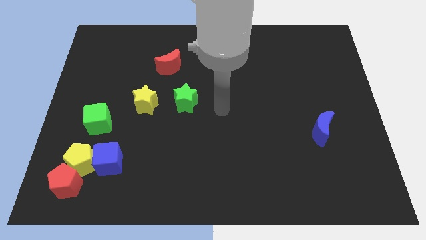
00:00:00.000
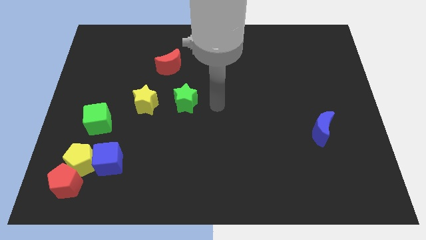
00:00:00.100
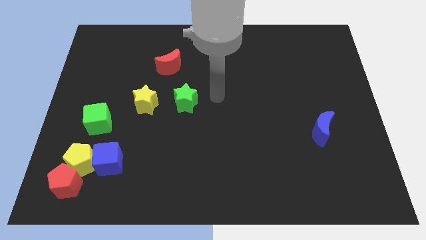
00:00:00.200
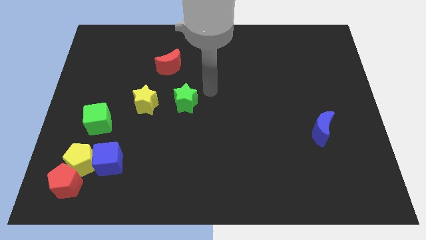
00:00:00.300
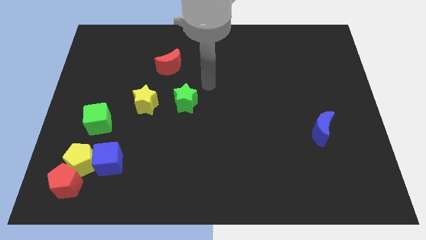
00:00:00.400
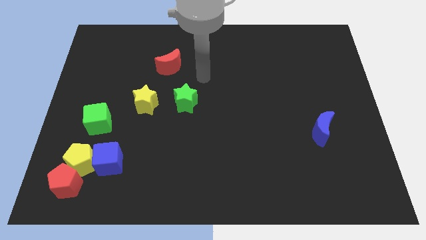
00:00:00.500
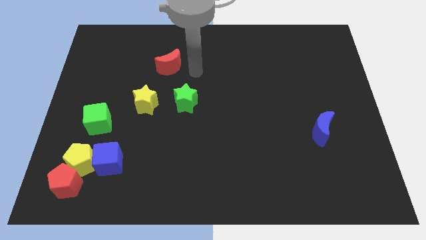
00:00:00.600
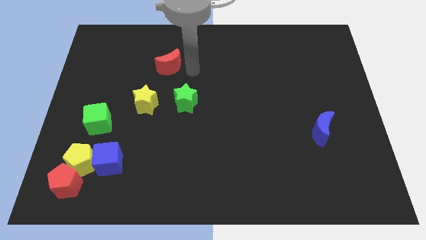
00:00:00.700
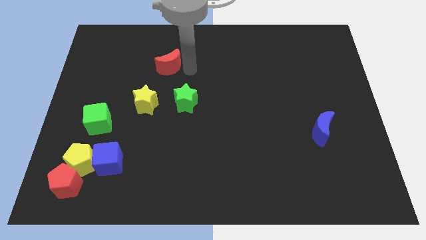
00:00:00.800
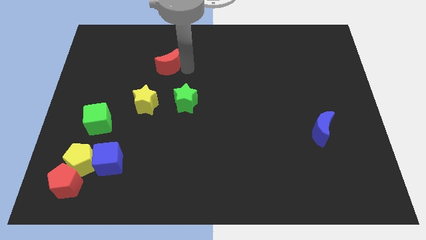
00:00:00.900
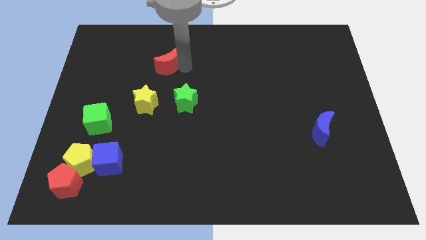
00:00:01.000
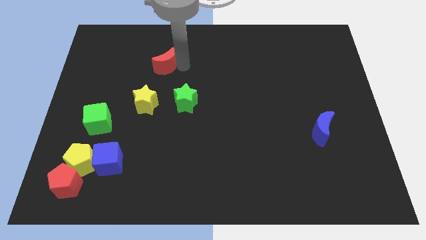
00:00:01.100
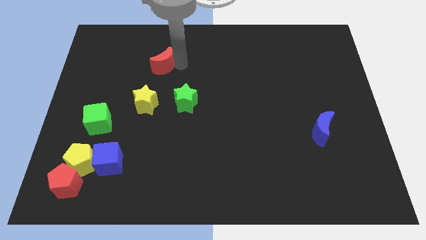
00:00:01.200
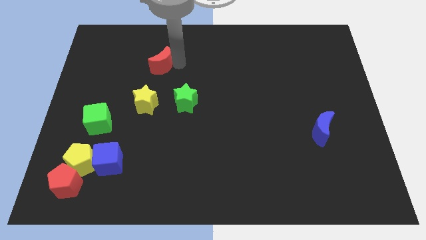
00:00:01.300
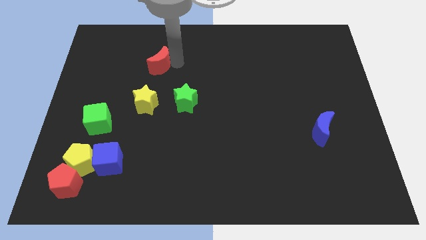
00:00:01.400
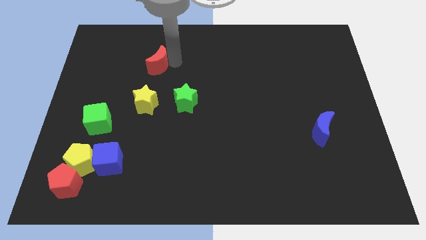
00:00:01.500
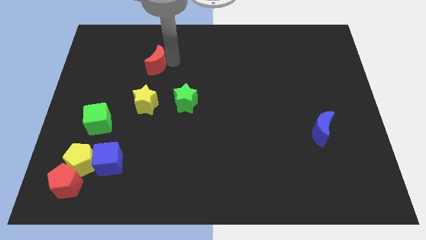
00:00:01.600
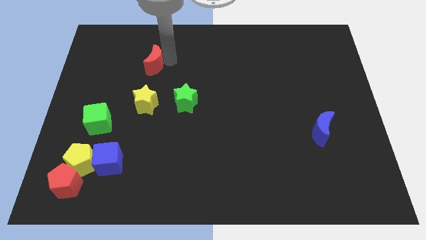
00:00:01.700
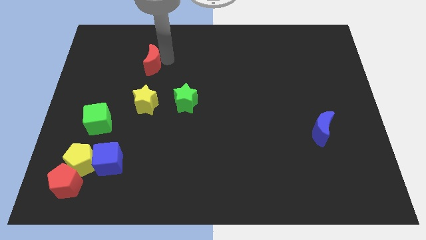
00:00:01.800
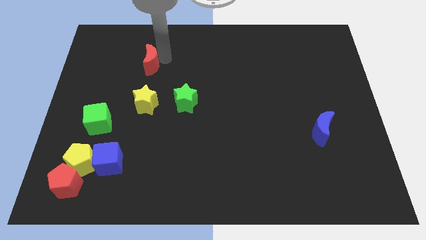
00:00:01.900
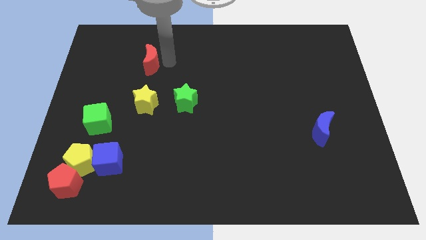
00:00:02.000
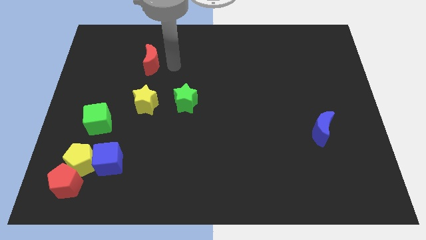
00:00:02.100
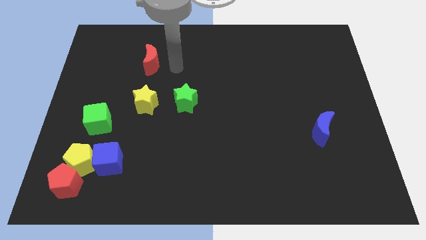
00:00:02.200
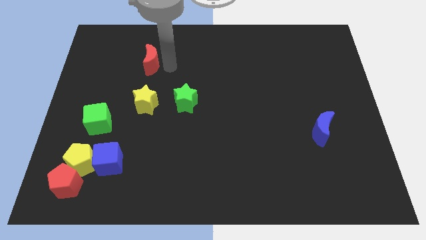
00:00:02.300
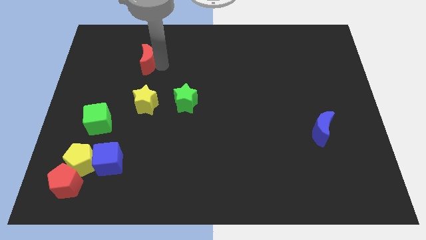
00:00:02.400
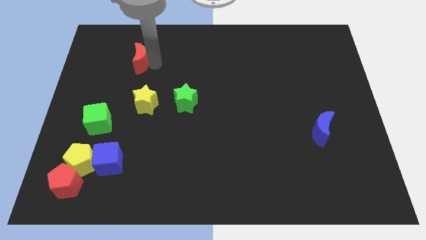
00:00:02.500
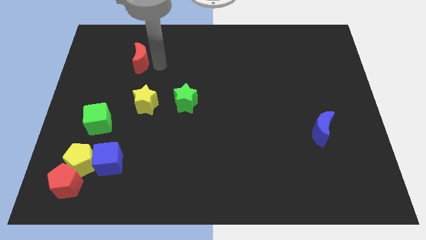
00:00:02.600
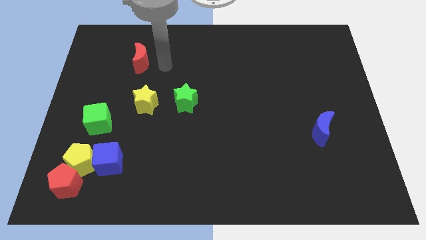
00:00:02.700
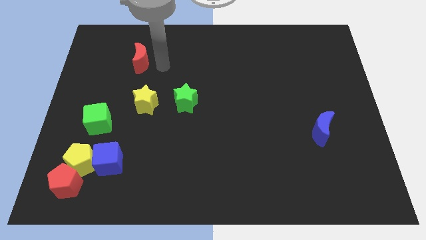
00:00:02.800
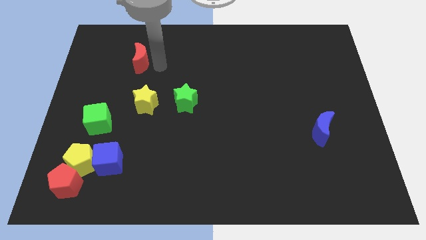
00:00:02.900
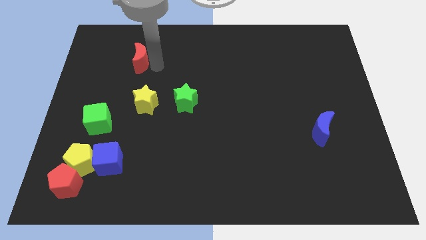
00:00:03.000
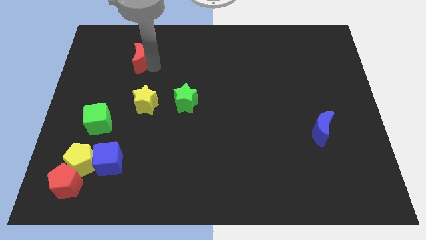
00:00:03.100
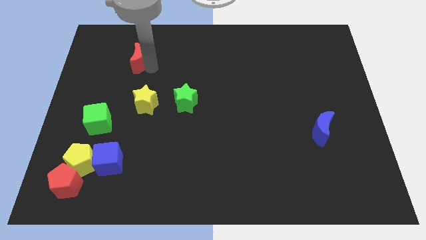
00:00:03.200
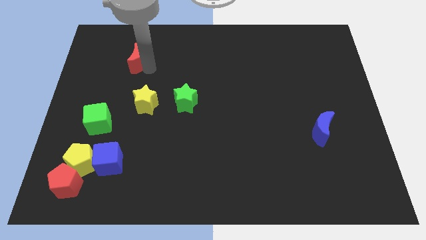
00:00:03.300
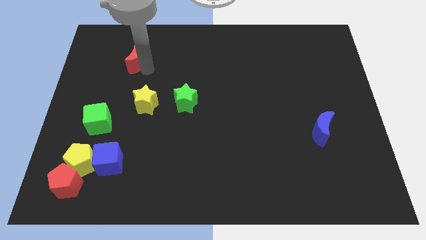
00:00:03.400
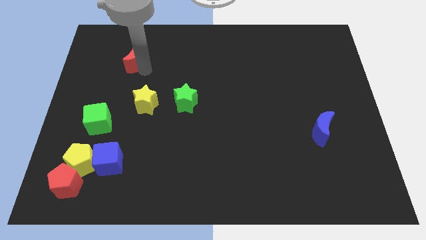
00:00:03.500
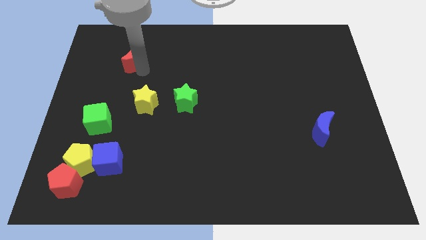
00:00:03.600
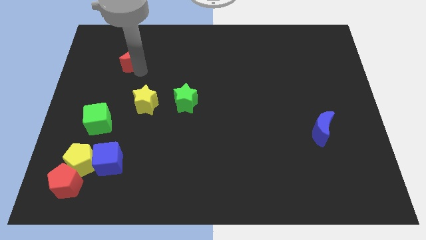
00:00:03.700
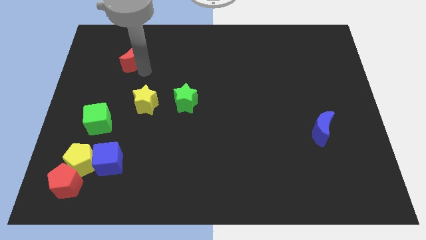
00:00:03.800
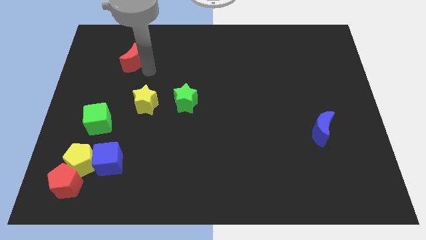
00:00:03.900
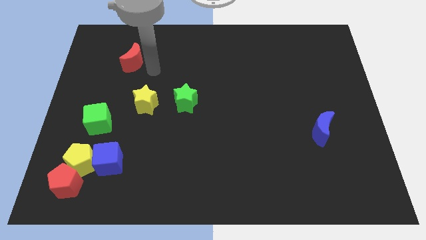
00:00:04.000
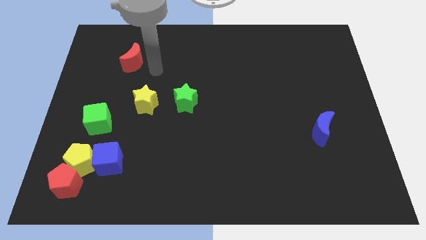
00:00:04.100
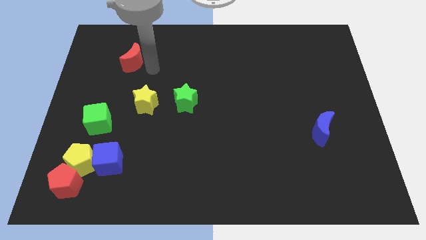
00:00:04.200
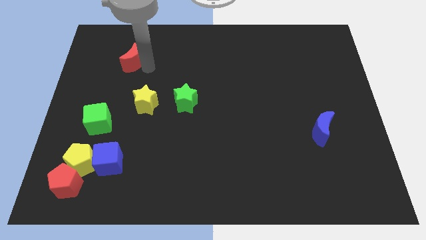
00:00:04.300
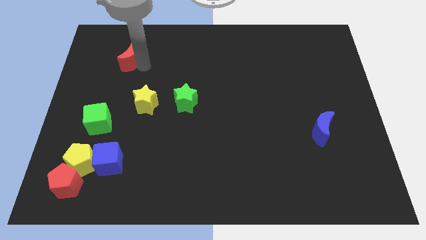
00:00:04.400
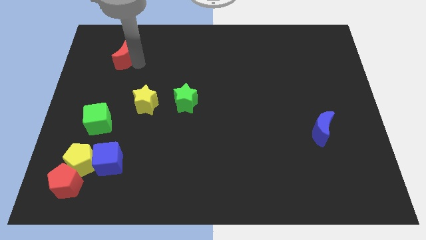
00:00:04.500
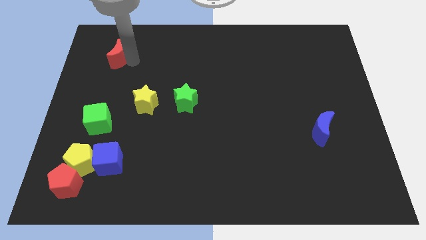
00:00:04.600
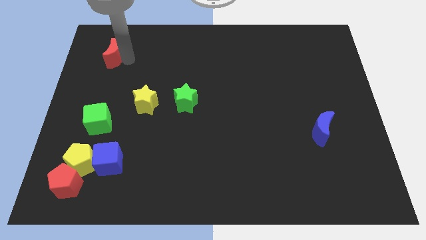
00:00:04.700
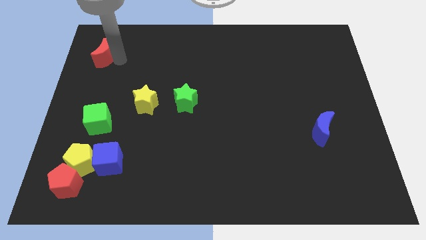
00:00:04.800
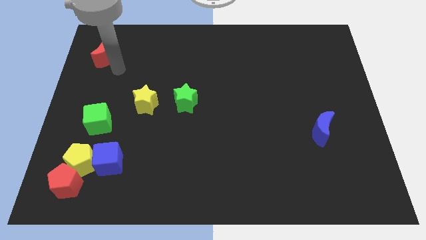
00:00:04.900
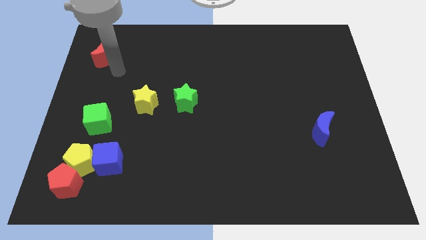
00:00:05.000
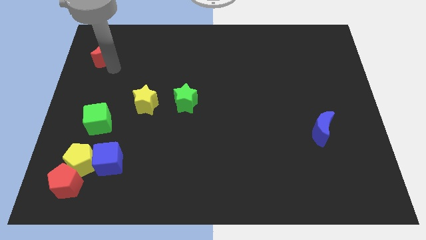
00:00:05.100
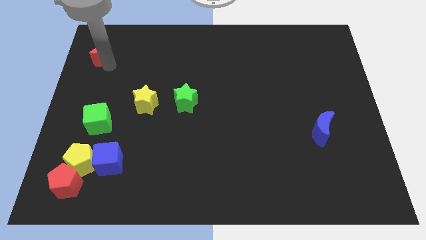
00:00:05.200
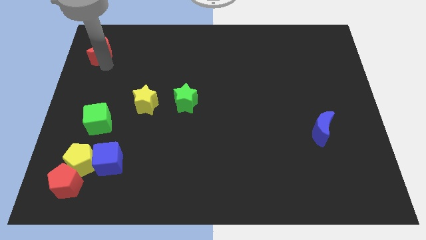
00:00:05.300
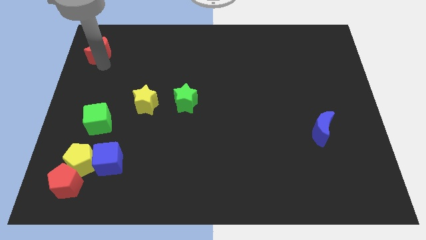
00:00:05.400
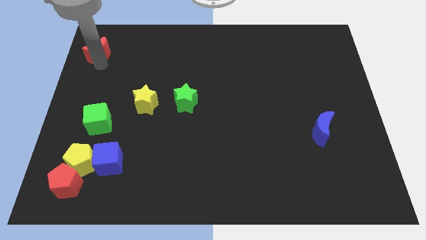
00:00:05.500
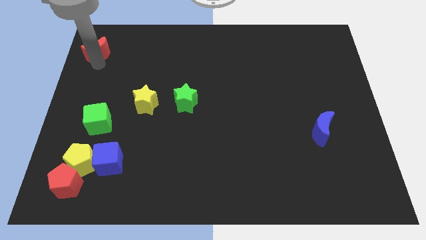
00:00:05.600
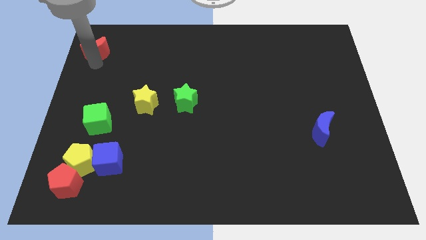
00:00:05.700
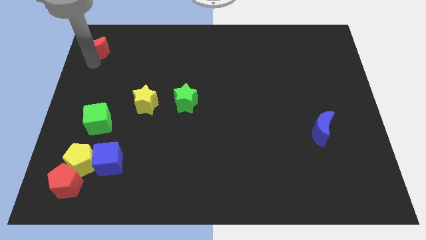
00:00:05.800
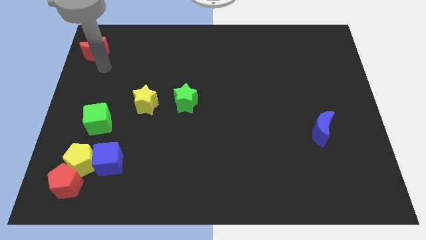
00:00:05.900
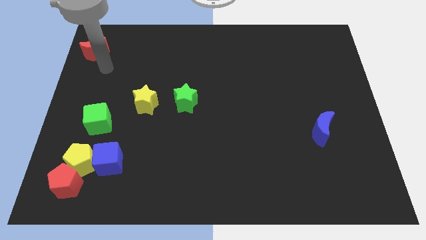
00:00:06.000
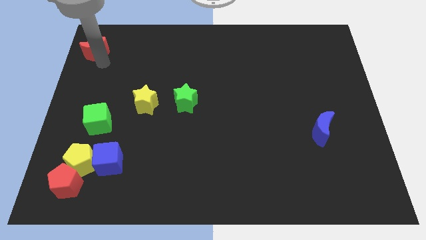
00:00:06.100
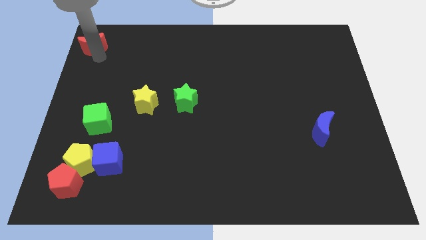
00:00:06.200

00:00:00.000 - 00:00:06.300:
put the red moon to the top left of the board

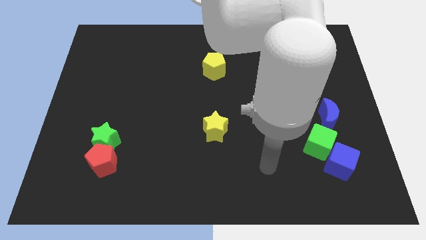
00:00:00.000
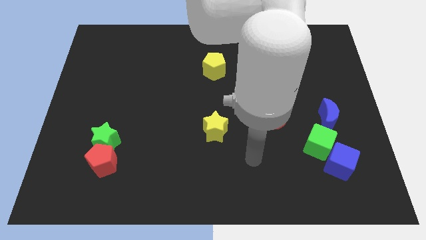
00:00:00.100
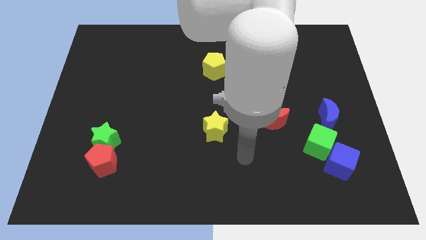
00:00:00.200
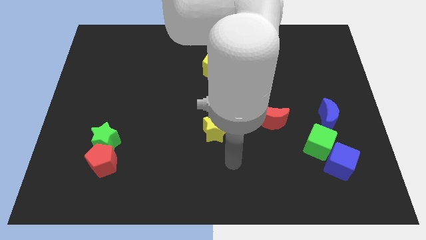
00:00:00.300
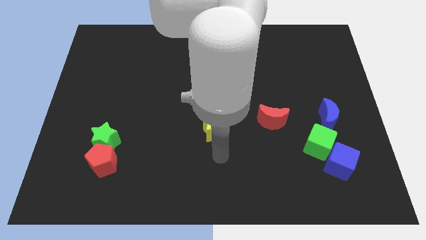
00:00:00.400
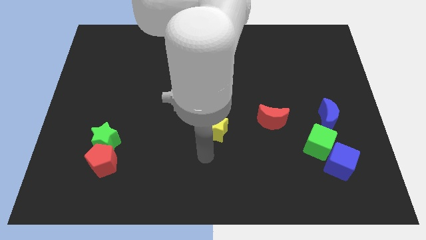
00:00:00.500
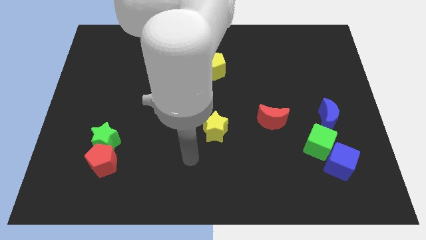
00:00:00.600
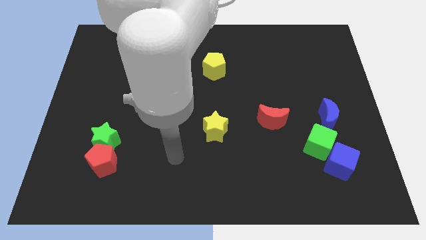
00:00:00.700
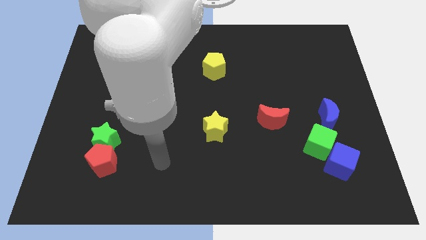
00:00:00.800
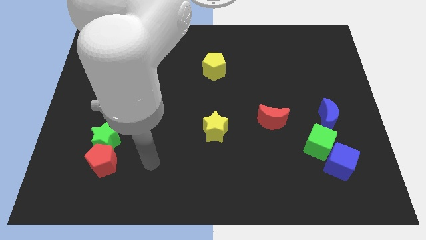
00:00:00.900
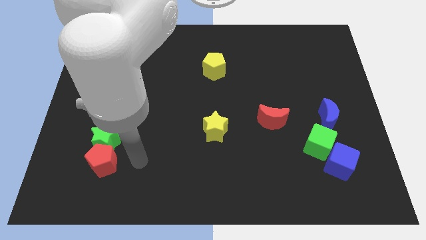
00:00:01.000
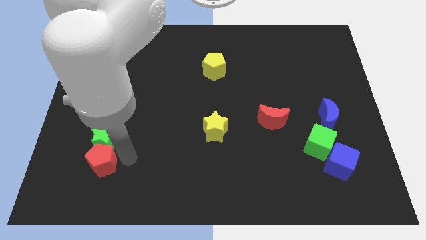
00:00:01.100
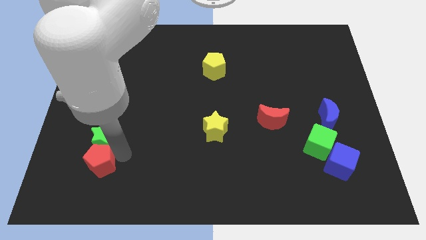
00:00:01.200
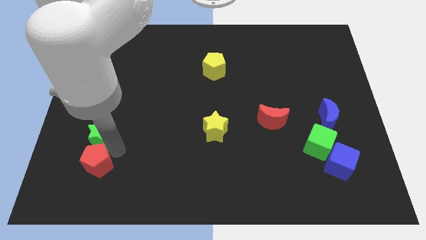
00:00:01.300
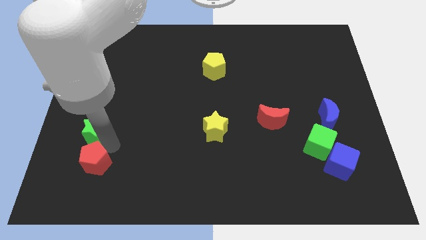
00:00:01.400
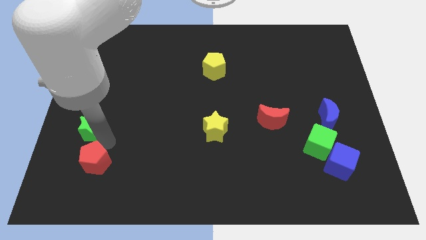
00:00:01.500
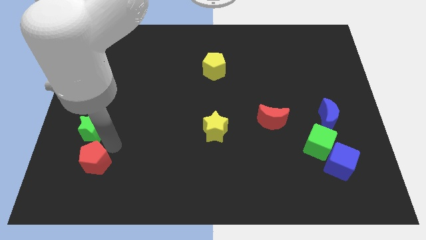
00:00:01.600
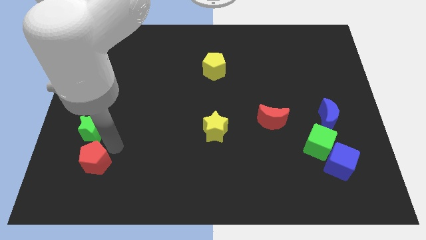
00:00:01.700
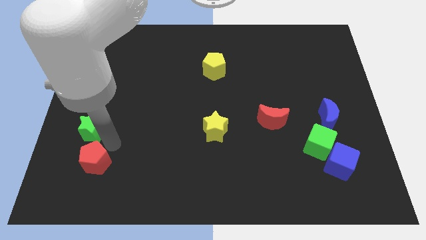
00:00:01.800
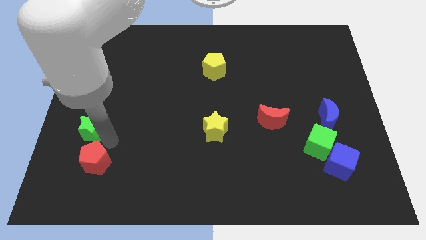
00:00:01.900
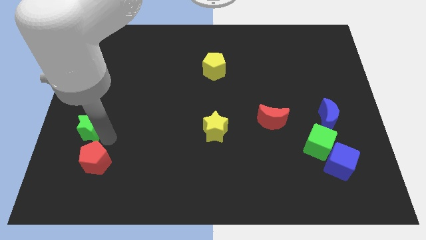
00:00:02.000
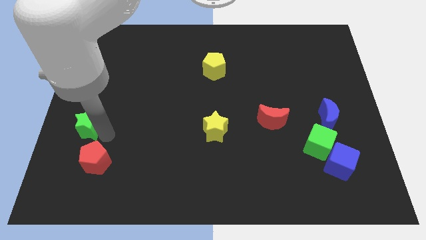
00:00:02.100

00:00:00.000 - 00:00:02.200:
push the green star to the left side of the board
